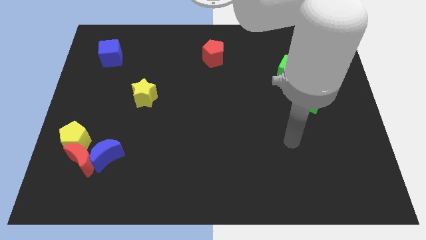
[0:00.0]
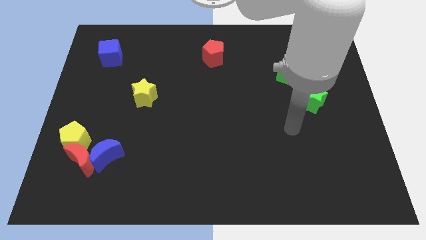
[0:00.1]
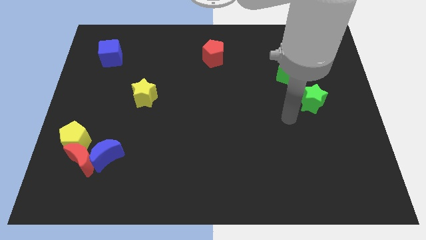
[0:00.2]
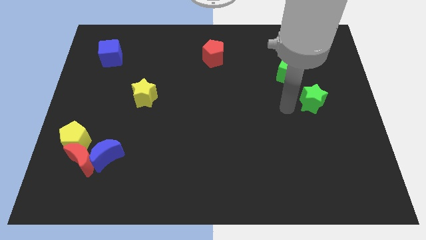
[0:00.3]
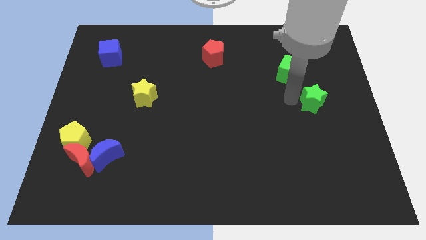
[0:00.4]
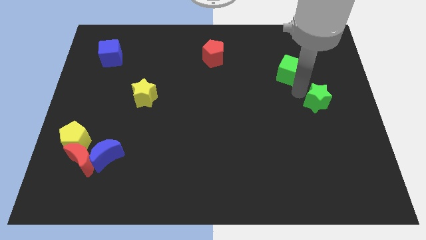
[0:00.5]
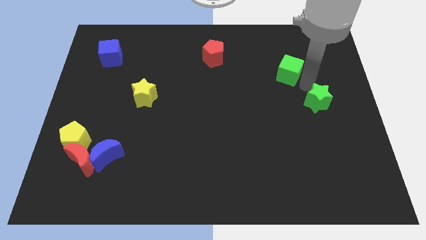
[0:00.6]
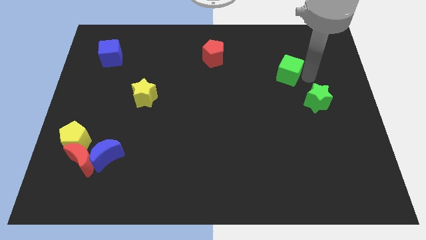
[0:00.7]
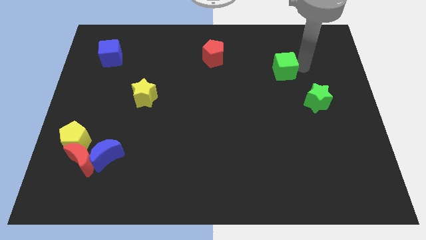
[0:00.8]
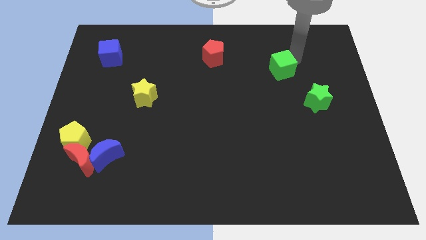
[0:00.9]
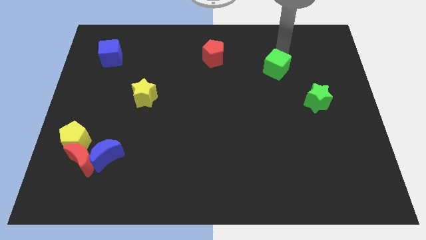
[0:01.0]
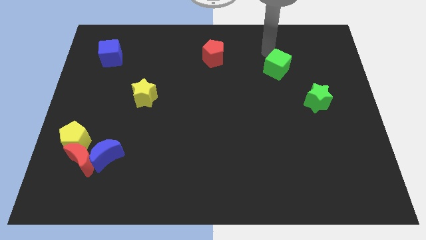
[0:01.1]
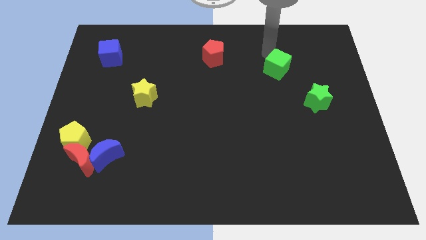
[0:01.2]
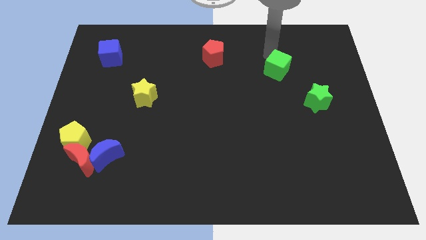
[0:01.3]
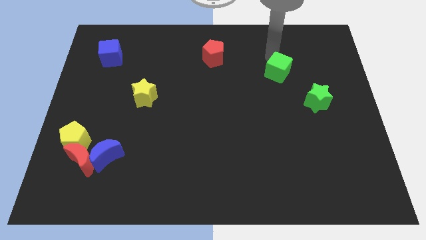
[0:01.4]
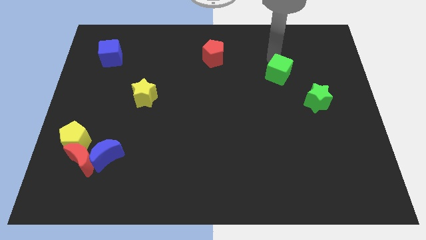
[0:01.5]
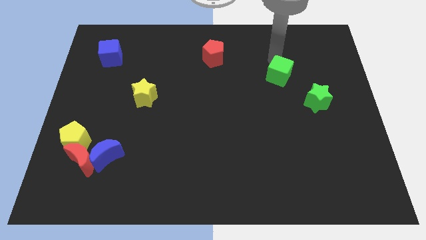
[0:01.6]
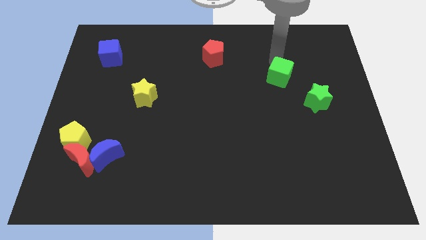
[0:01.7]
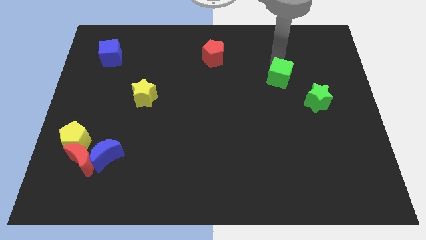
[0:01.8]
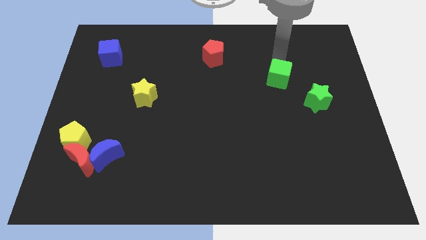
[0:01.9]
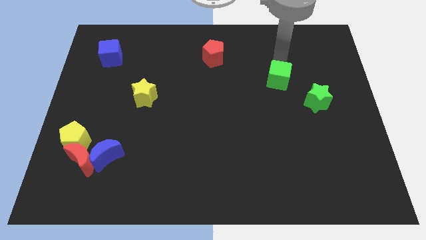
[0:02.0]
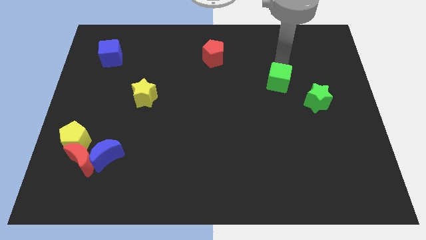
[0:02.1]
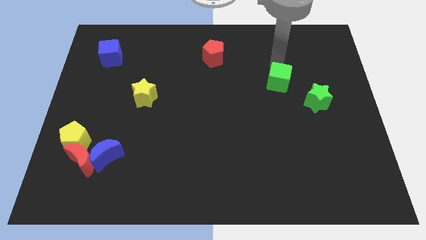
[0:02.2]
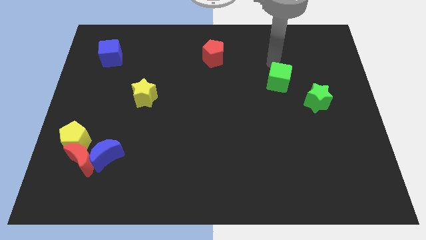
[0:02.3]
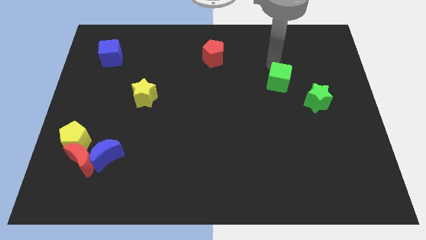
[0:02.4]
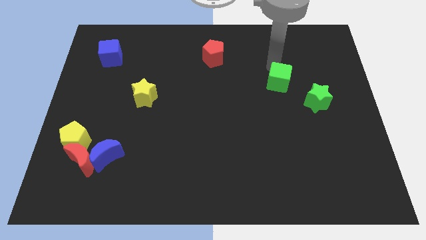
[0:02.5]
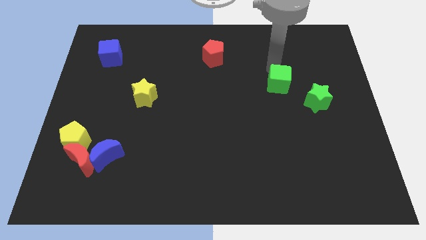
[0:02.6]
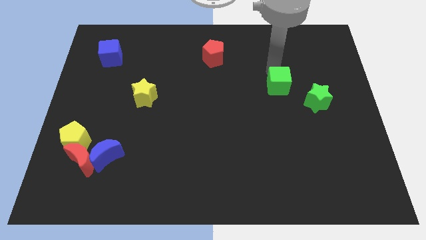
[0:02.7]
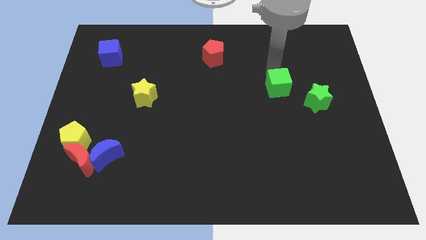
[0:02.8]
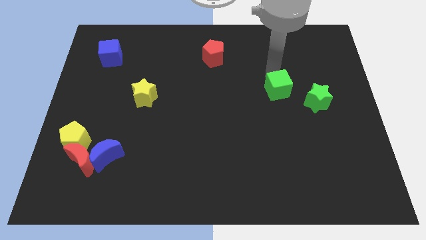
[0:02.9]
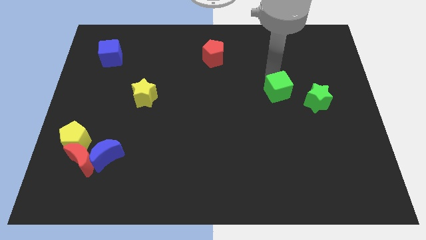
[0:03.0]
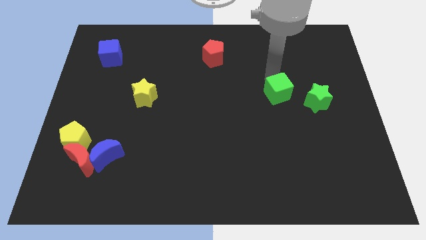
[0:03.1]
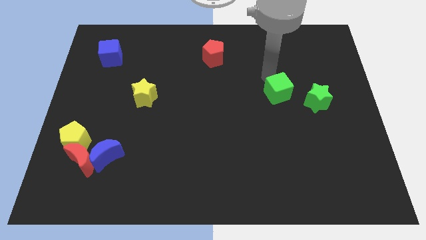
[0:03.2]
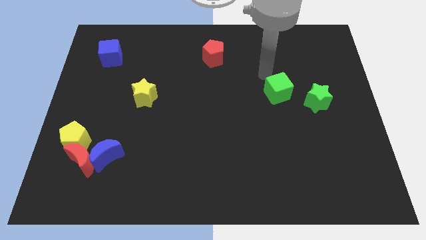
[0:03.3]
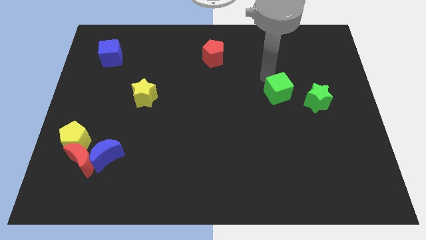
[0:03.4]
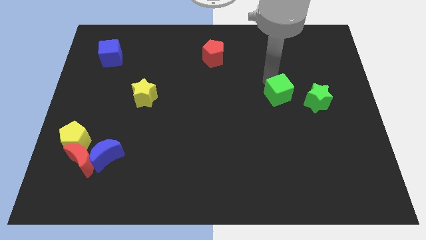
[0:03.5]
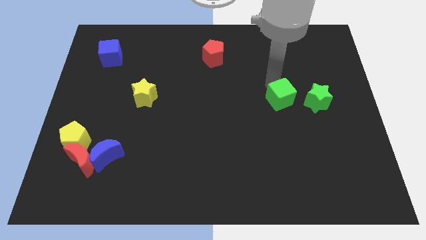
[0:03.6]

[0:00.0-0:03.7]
move the green cube down a little

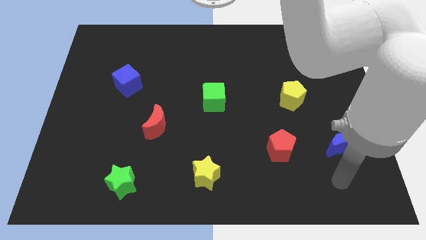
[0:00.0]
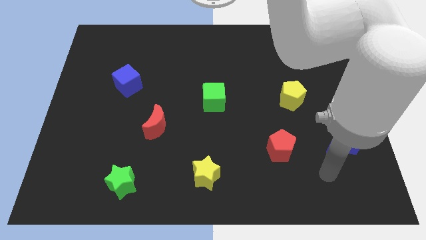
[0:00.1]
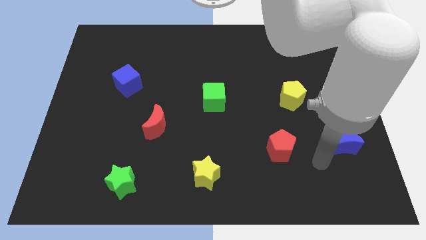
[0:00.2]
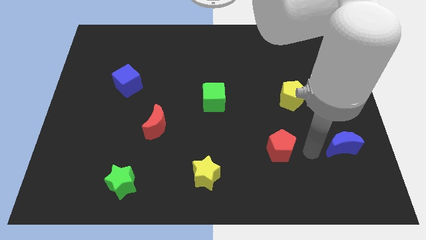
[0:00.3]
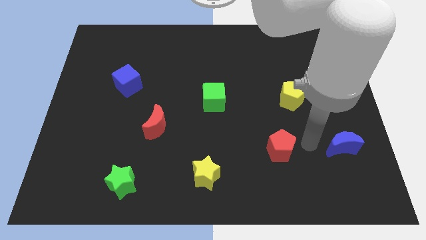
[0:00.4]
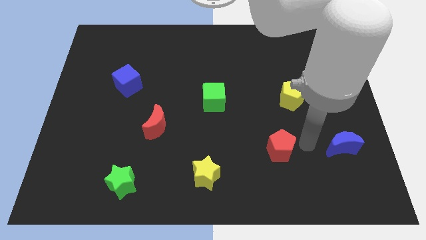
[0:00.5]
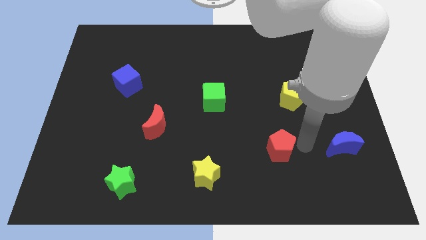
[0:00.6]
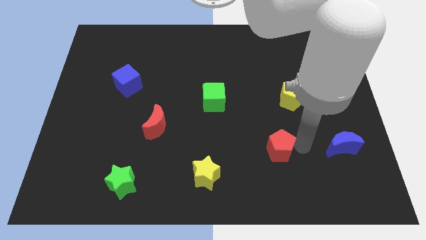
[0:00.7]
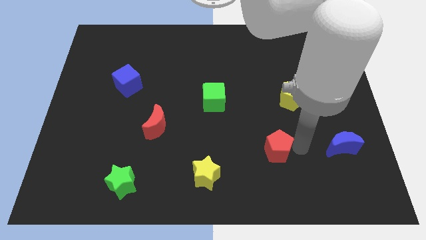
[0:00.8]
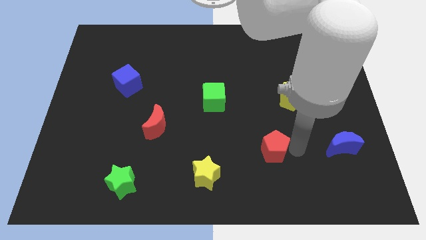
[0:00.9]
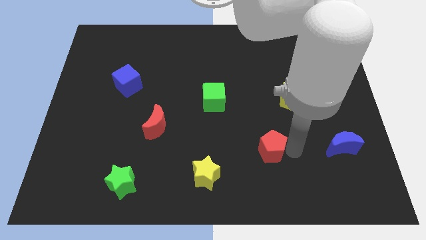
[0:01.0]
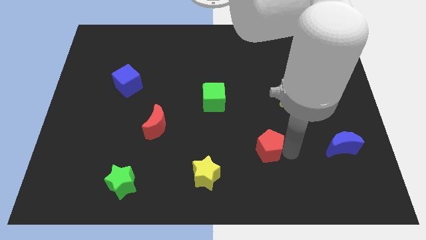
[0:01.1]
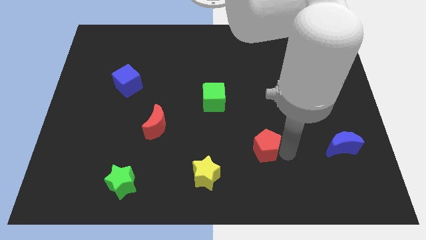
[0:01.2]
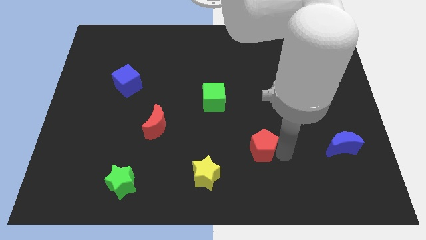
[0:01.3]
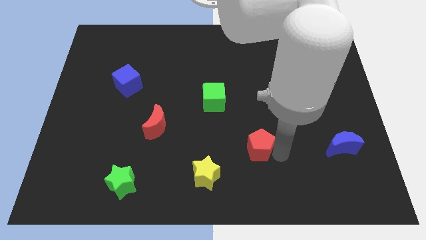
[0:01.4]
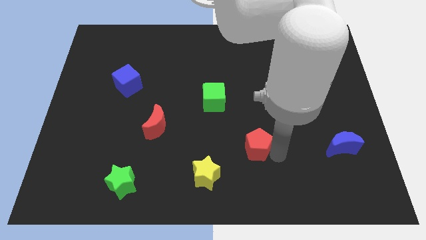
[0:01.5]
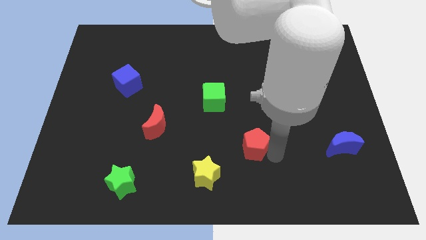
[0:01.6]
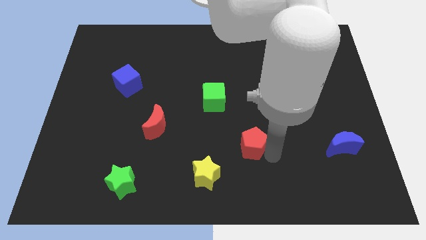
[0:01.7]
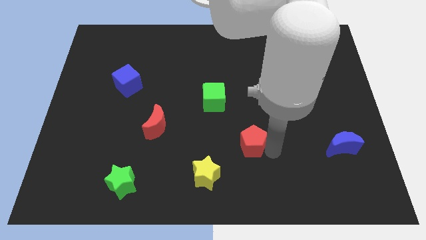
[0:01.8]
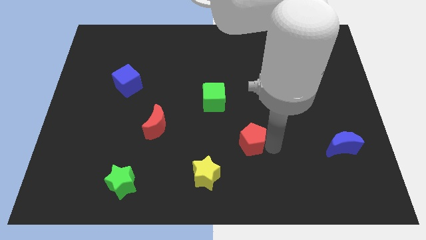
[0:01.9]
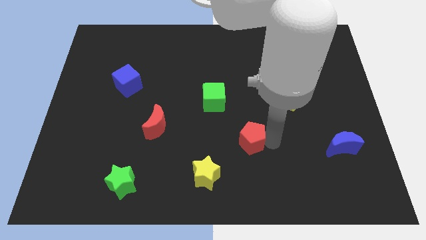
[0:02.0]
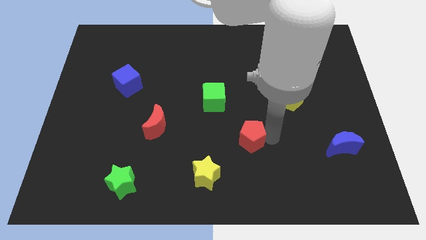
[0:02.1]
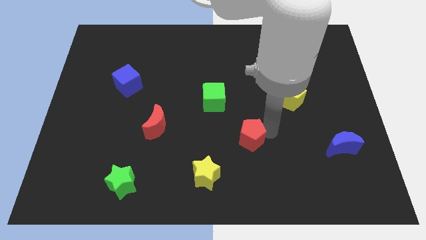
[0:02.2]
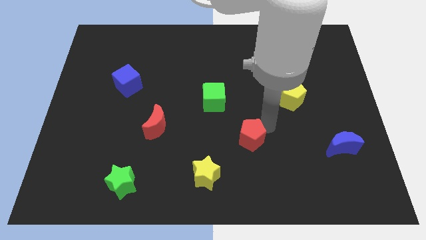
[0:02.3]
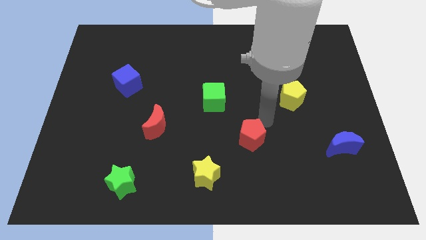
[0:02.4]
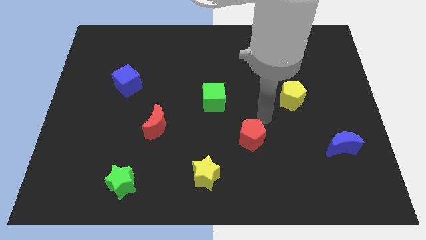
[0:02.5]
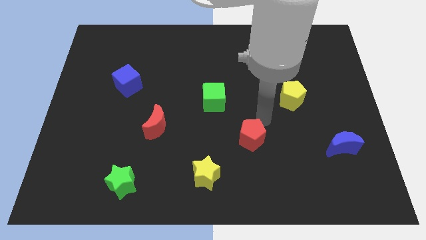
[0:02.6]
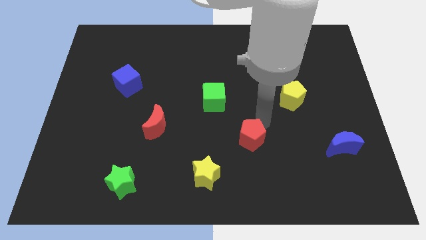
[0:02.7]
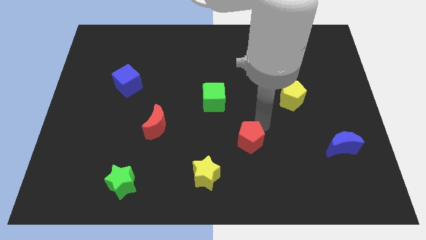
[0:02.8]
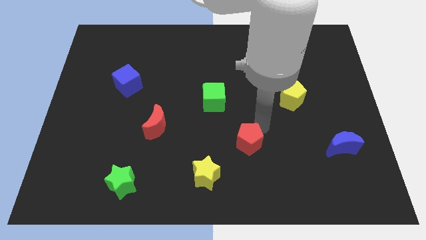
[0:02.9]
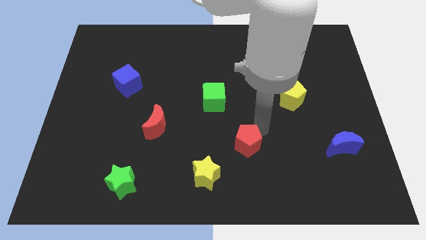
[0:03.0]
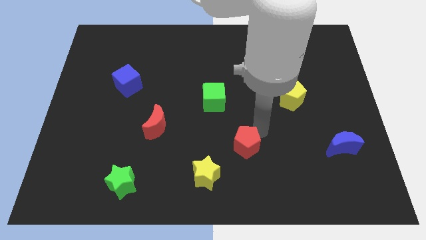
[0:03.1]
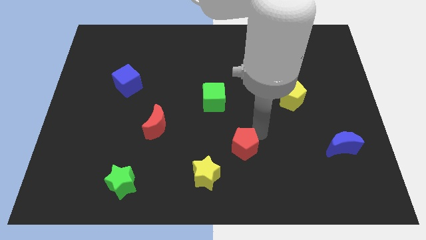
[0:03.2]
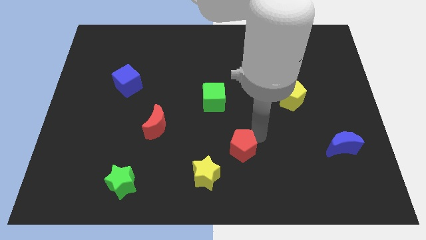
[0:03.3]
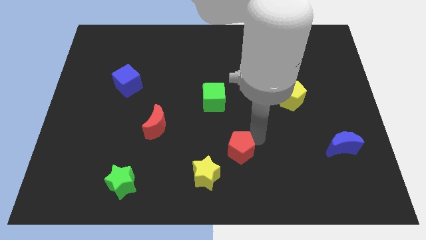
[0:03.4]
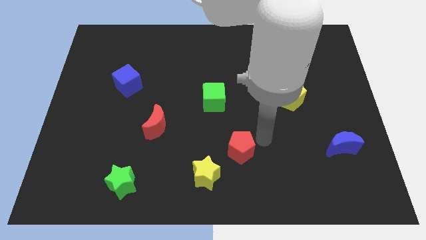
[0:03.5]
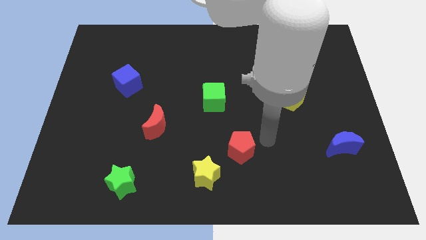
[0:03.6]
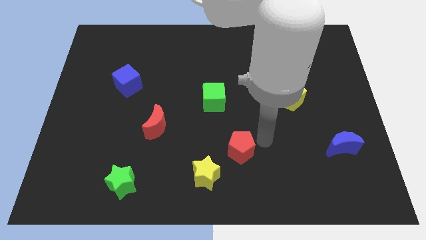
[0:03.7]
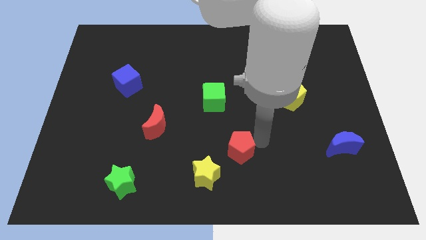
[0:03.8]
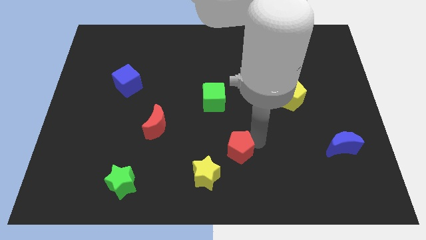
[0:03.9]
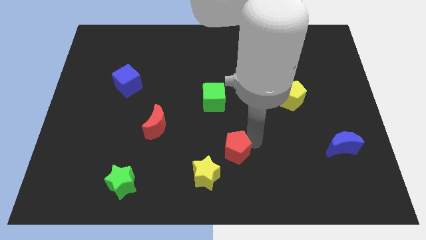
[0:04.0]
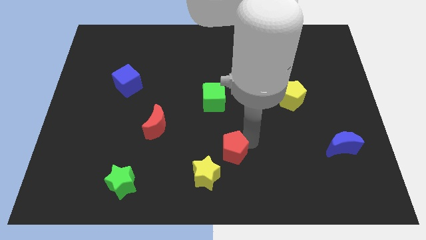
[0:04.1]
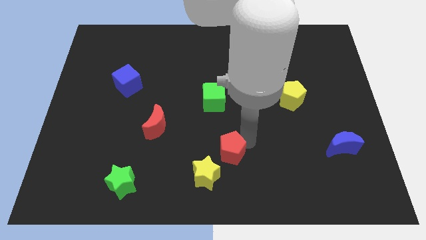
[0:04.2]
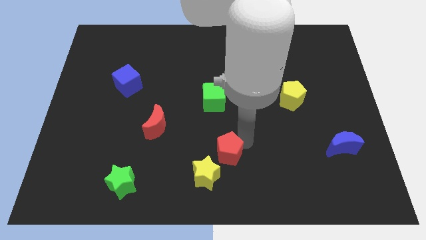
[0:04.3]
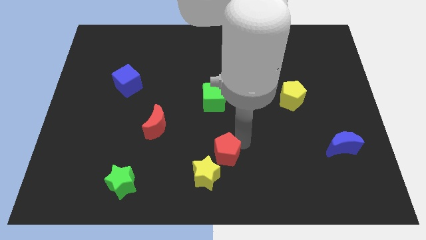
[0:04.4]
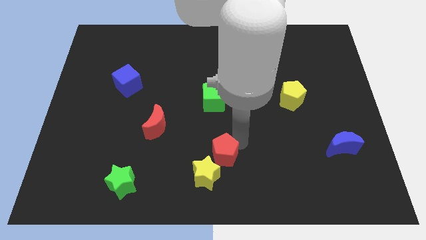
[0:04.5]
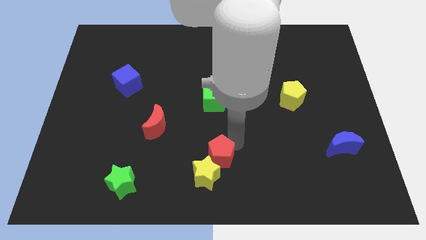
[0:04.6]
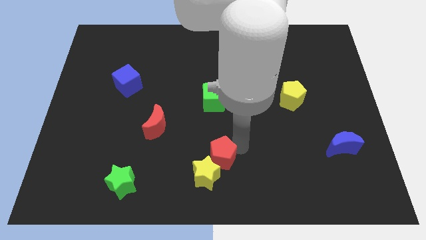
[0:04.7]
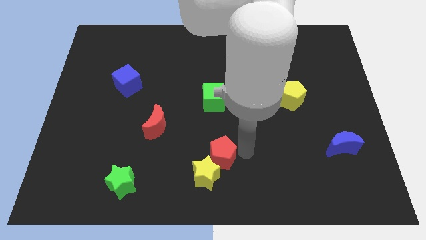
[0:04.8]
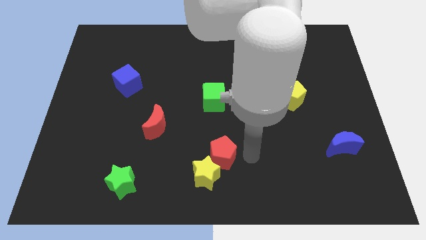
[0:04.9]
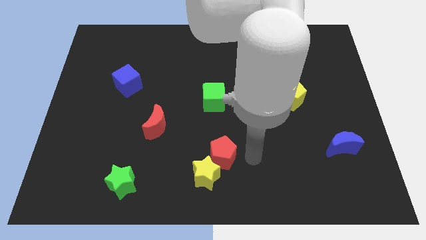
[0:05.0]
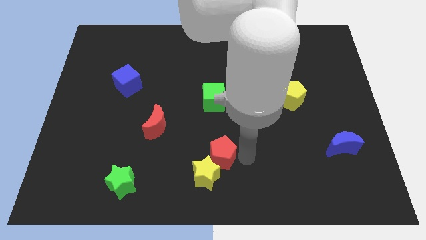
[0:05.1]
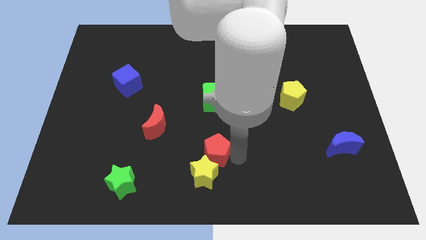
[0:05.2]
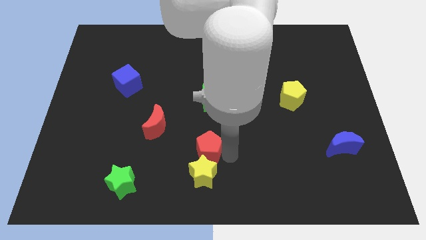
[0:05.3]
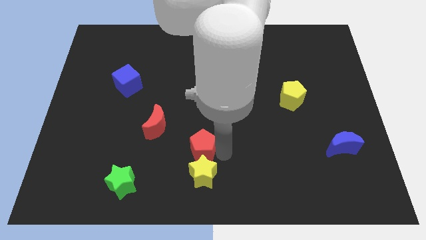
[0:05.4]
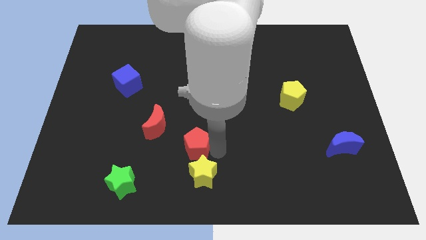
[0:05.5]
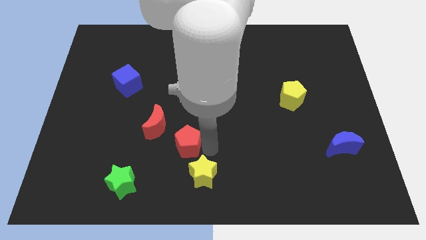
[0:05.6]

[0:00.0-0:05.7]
push the red pentagon to the left
